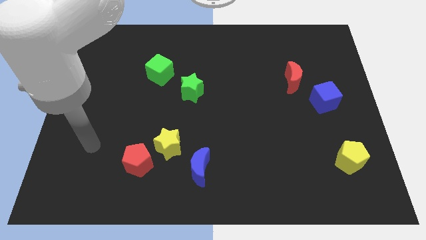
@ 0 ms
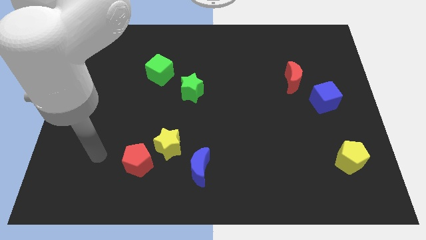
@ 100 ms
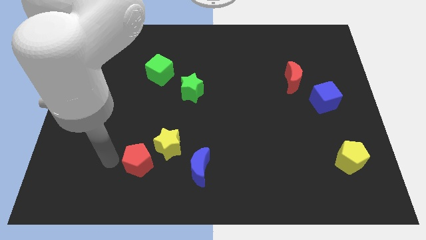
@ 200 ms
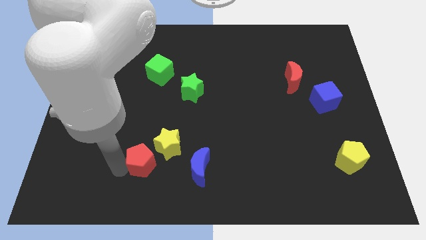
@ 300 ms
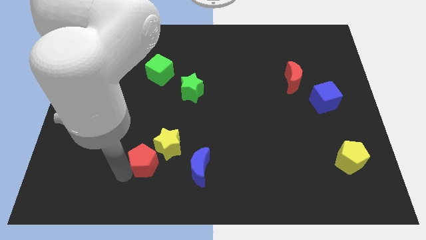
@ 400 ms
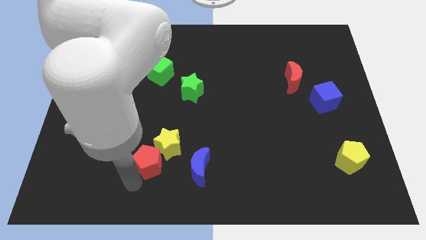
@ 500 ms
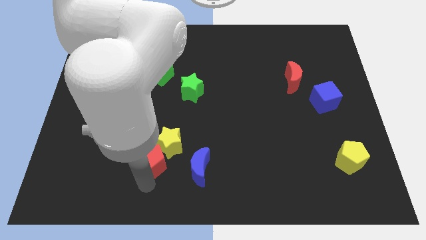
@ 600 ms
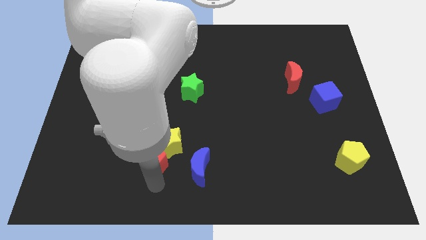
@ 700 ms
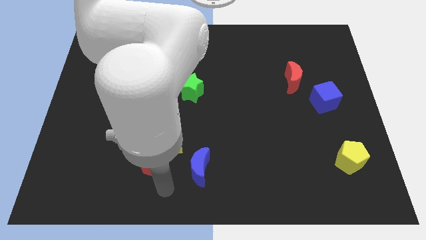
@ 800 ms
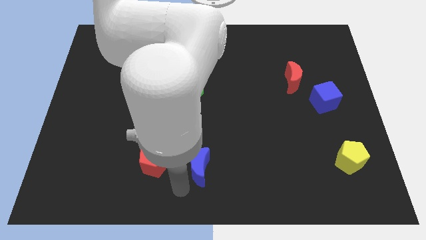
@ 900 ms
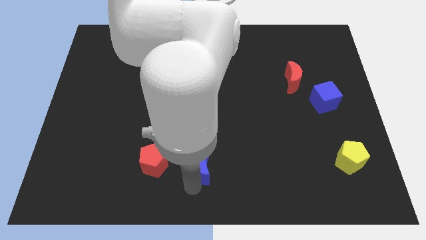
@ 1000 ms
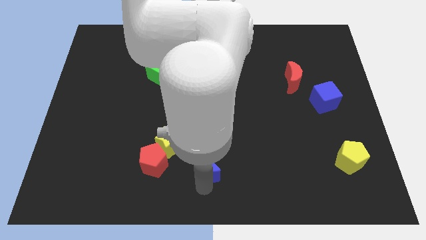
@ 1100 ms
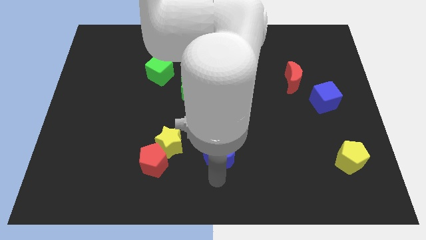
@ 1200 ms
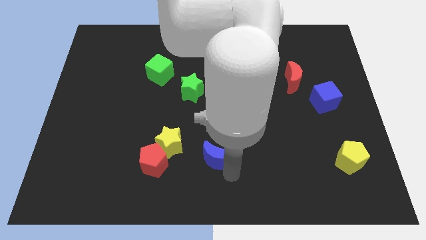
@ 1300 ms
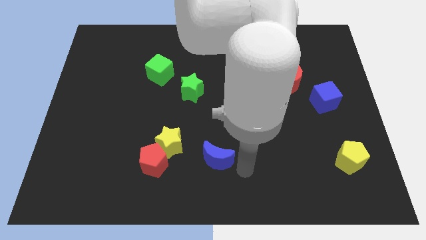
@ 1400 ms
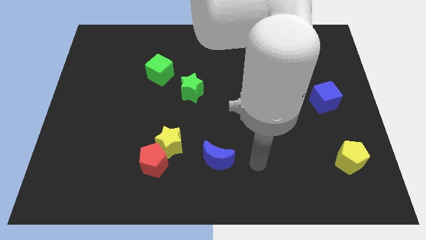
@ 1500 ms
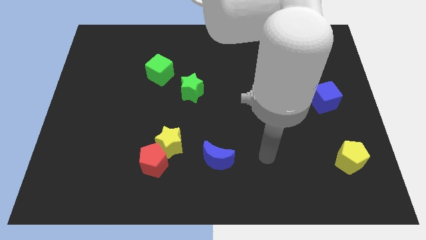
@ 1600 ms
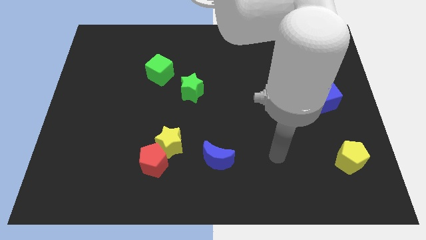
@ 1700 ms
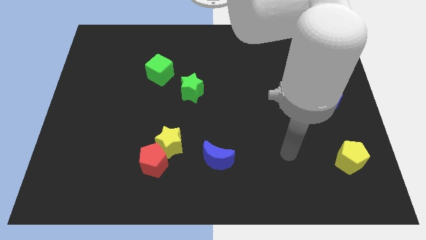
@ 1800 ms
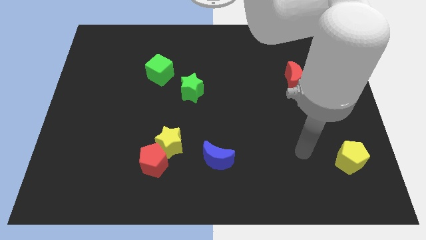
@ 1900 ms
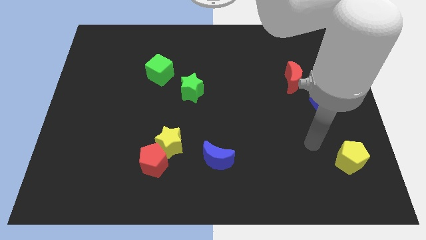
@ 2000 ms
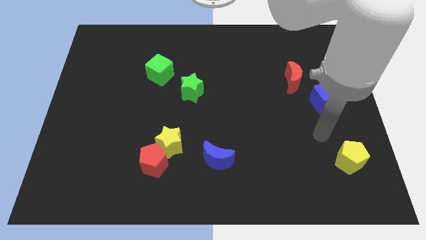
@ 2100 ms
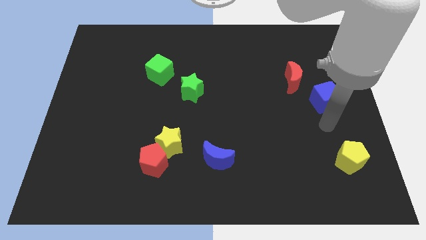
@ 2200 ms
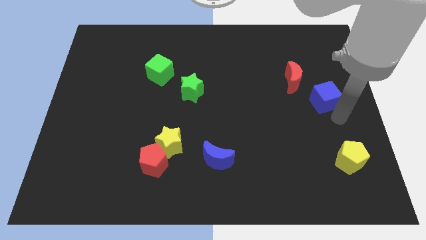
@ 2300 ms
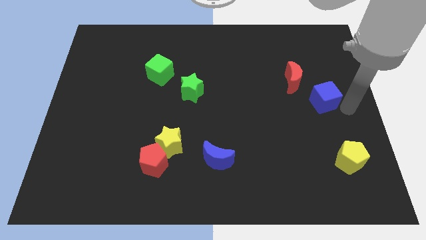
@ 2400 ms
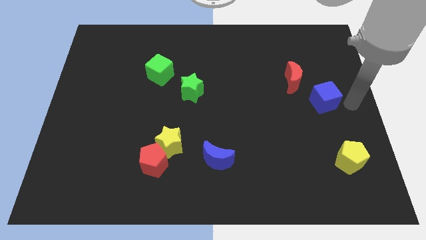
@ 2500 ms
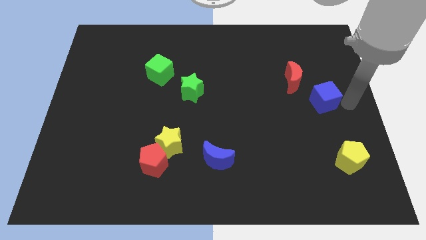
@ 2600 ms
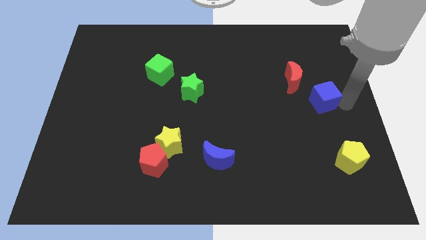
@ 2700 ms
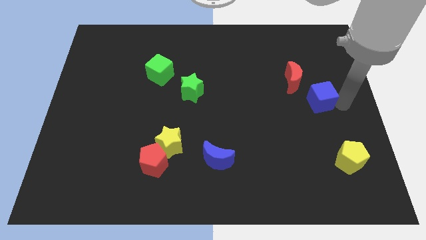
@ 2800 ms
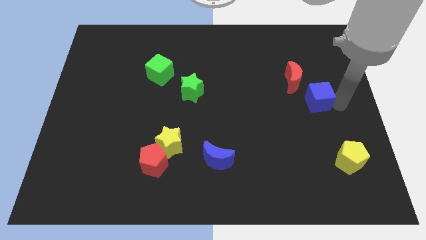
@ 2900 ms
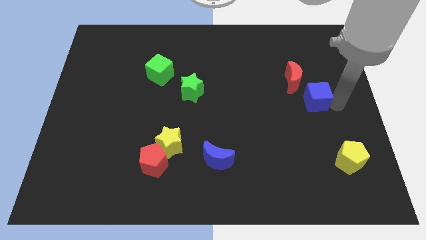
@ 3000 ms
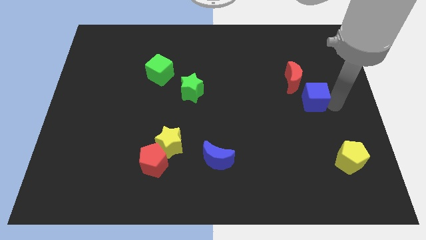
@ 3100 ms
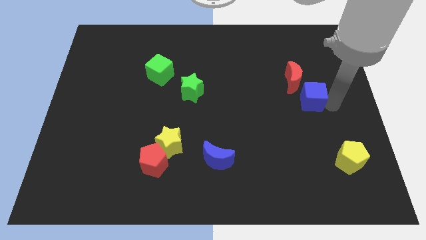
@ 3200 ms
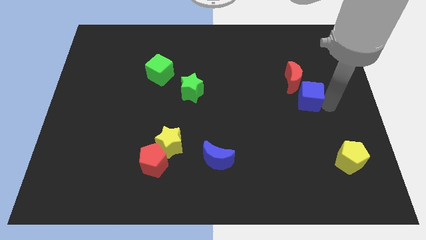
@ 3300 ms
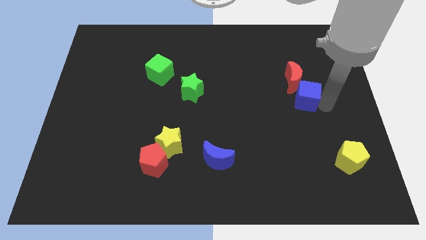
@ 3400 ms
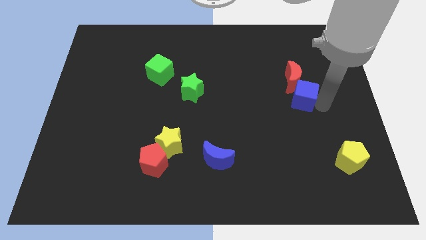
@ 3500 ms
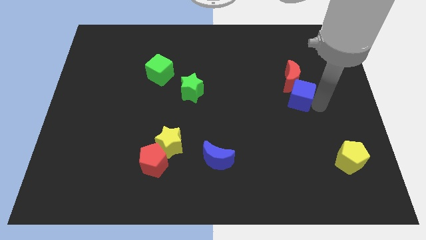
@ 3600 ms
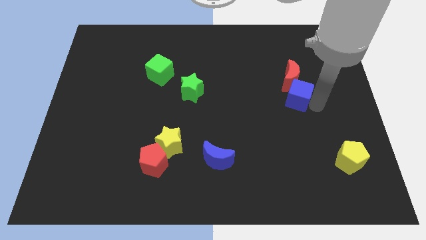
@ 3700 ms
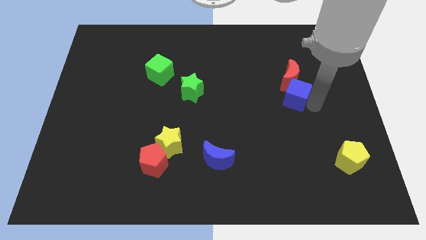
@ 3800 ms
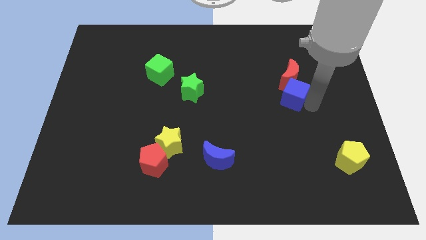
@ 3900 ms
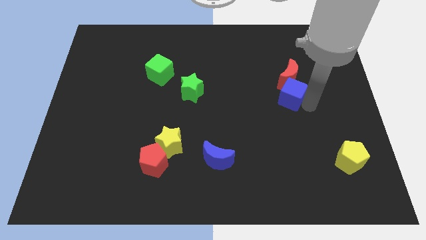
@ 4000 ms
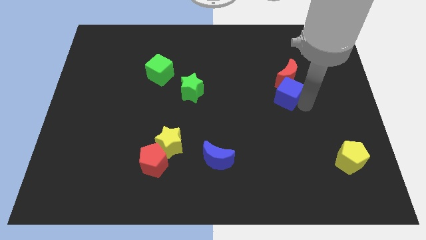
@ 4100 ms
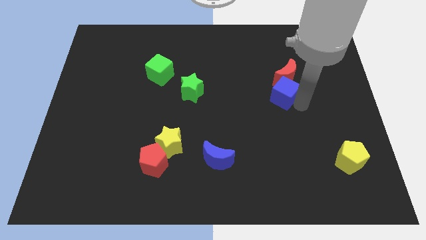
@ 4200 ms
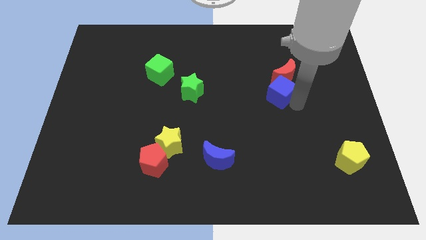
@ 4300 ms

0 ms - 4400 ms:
slide the blue cube a little diagonally upwards and left

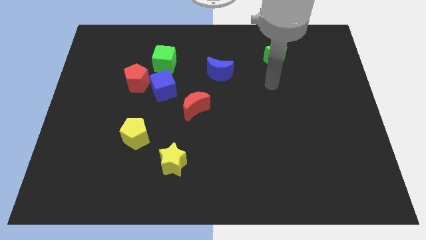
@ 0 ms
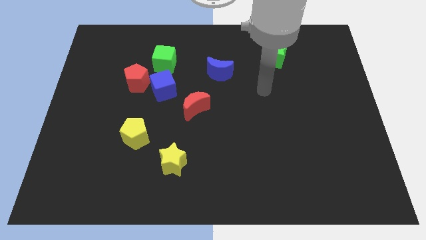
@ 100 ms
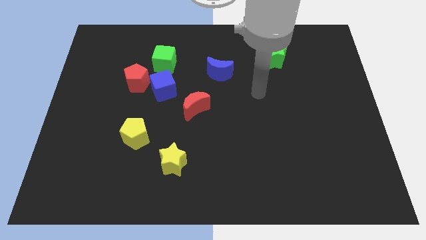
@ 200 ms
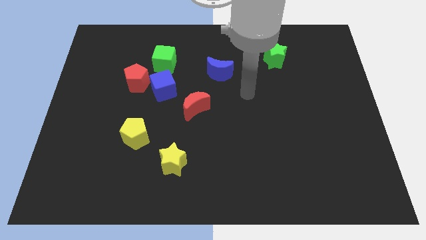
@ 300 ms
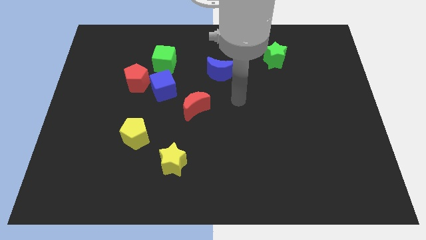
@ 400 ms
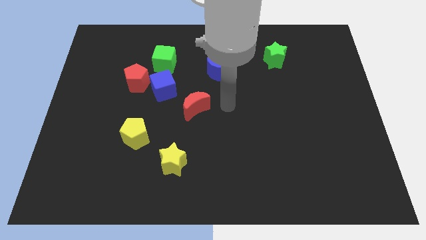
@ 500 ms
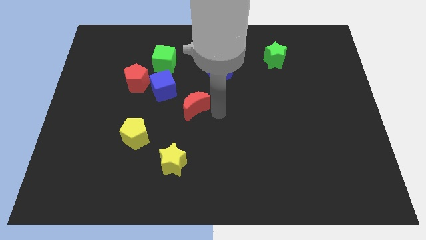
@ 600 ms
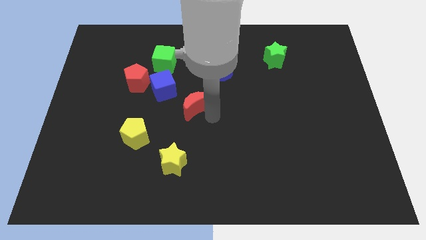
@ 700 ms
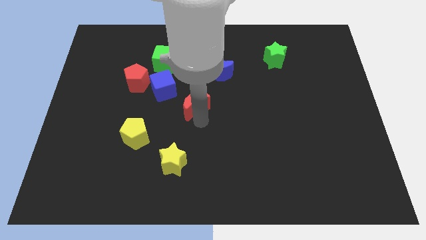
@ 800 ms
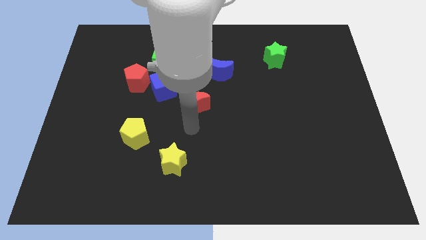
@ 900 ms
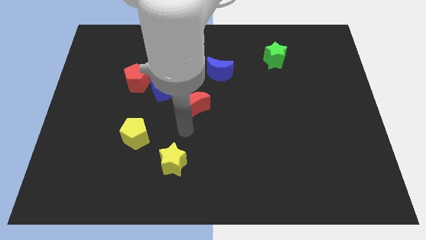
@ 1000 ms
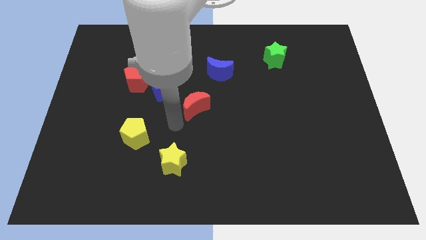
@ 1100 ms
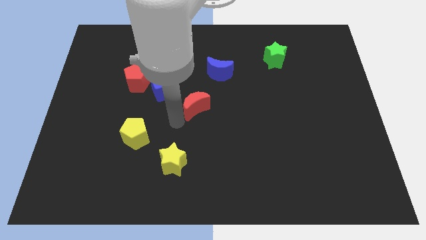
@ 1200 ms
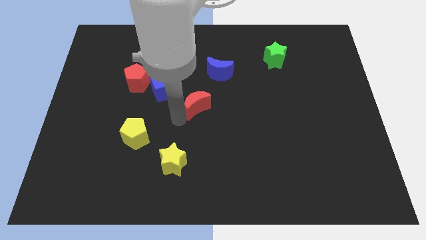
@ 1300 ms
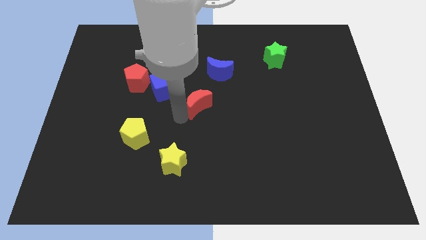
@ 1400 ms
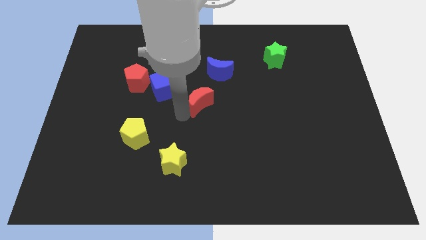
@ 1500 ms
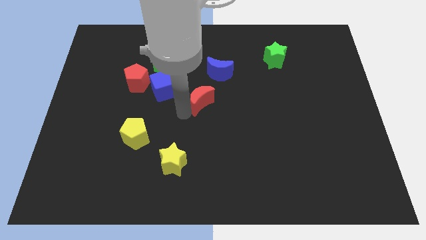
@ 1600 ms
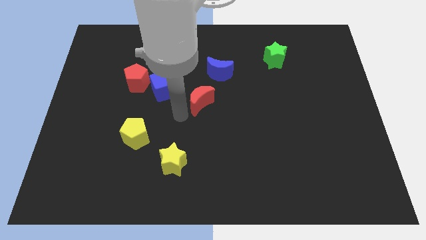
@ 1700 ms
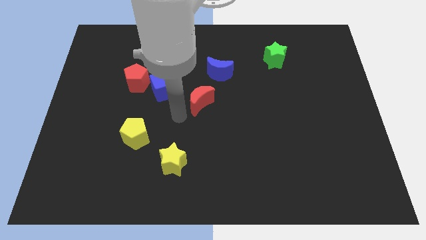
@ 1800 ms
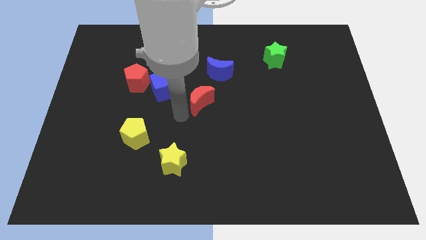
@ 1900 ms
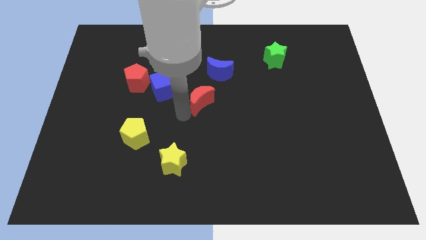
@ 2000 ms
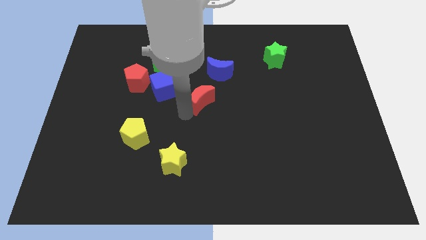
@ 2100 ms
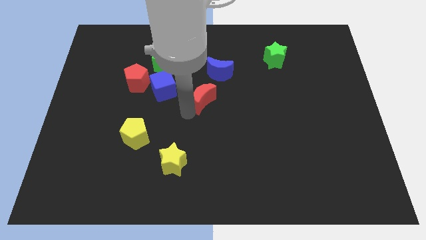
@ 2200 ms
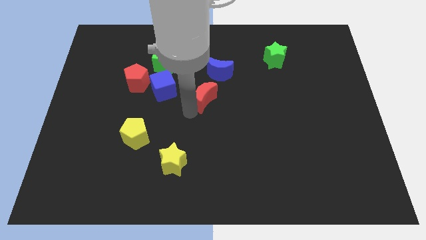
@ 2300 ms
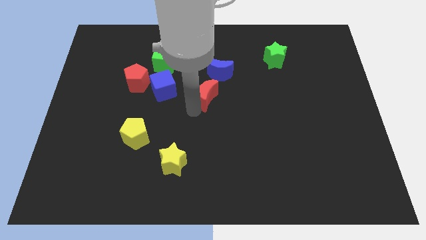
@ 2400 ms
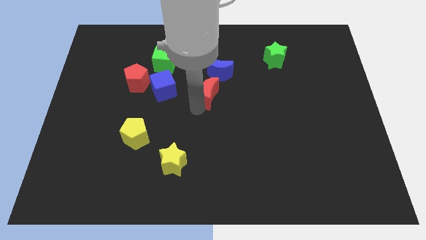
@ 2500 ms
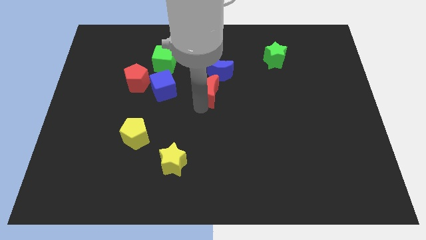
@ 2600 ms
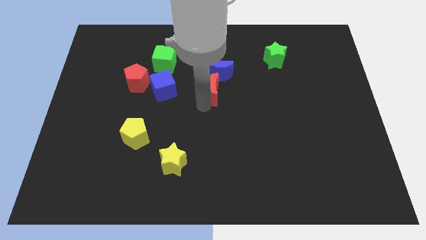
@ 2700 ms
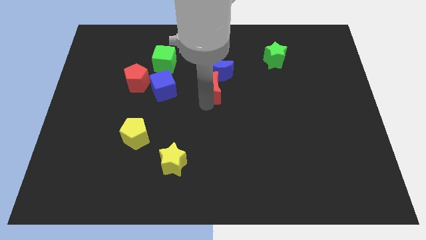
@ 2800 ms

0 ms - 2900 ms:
slide the red moon a bit diagonally upwards and to the right

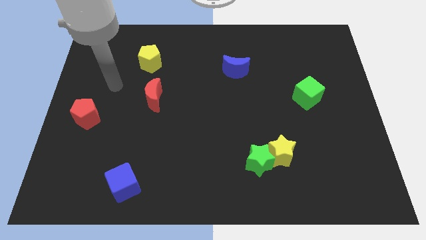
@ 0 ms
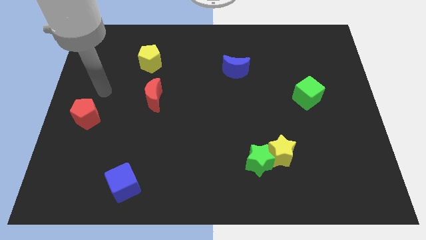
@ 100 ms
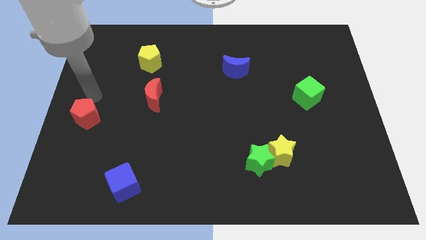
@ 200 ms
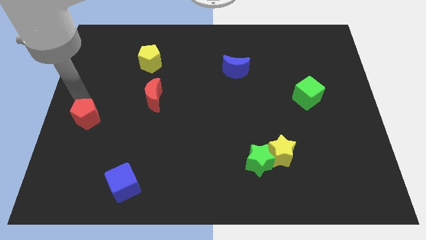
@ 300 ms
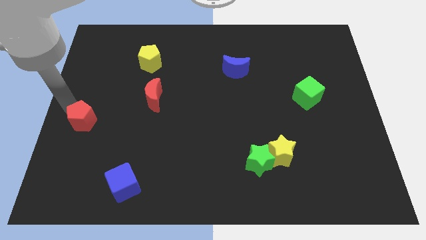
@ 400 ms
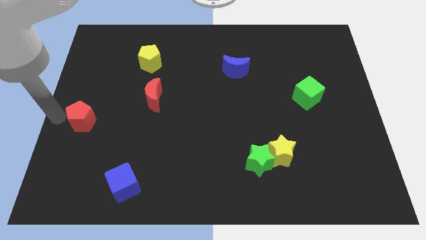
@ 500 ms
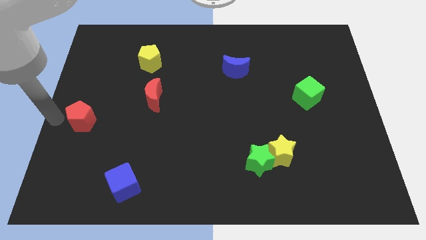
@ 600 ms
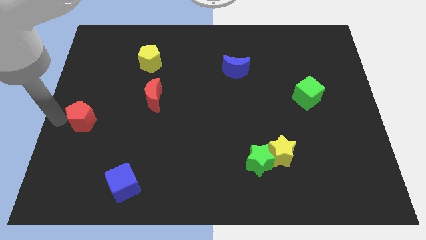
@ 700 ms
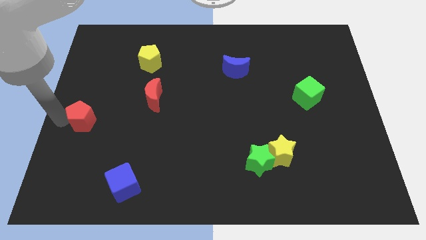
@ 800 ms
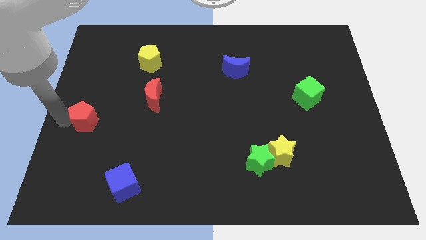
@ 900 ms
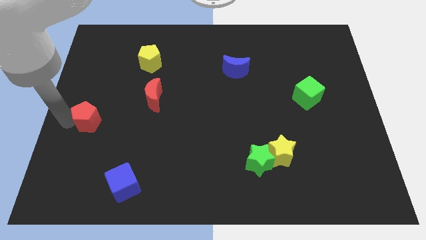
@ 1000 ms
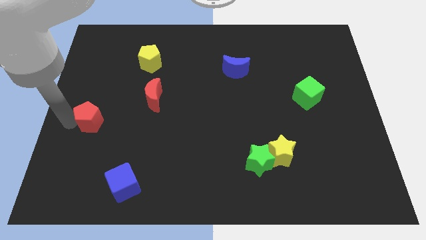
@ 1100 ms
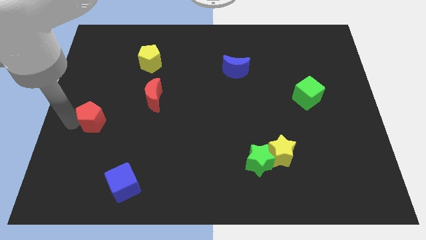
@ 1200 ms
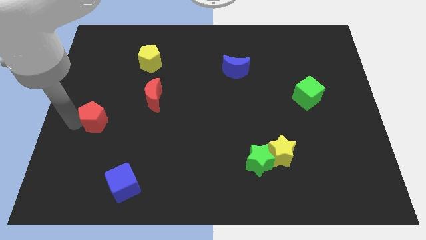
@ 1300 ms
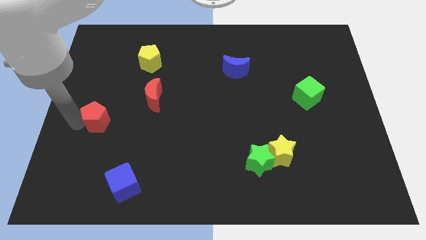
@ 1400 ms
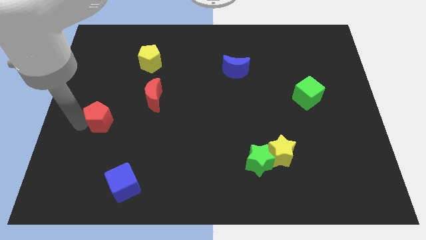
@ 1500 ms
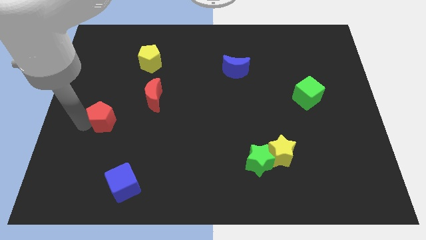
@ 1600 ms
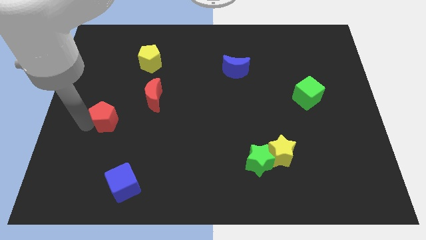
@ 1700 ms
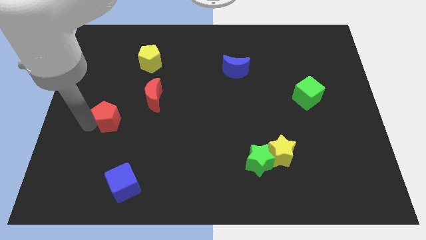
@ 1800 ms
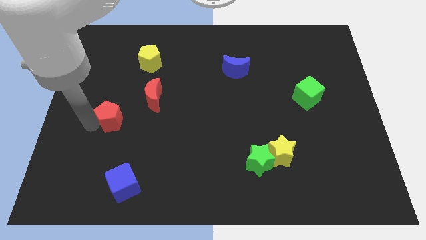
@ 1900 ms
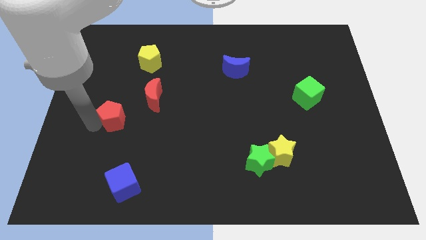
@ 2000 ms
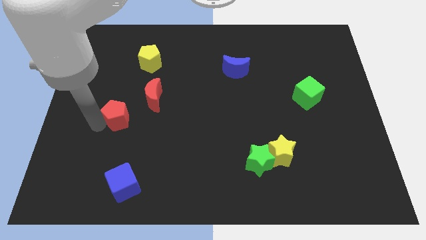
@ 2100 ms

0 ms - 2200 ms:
slightly slide the red pentagon right
